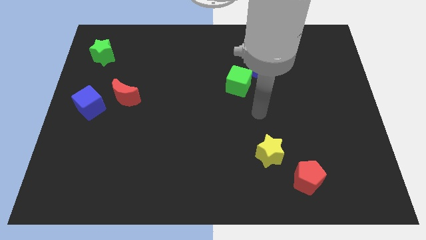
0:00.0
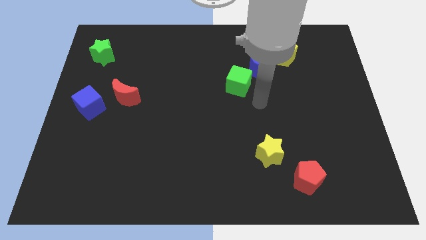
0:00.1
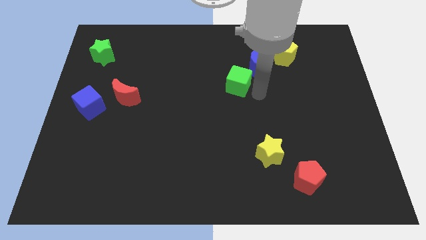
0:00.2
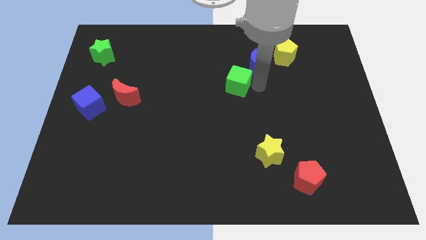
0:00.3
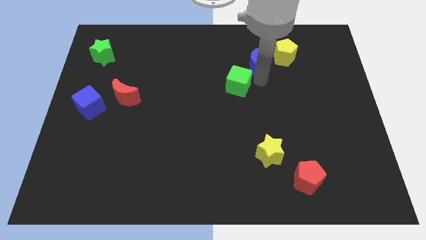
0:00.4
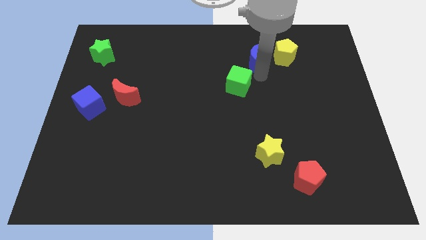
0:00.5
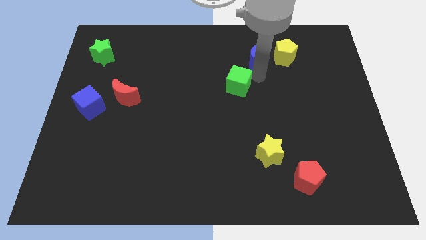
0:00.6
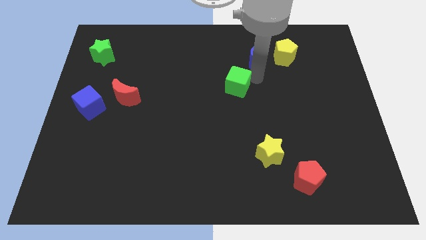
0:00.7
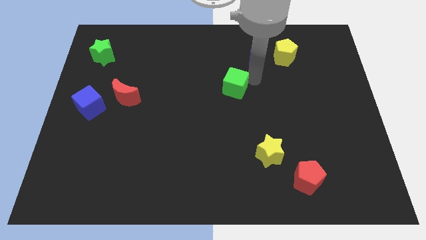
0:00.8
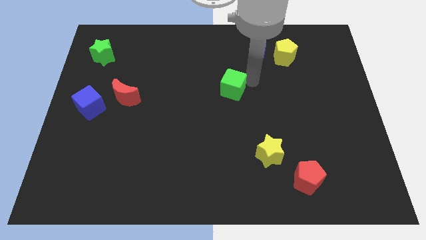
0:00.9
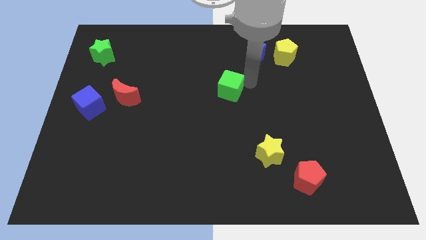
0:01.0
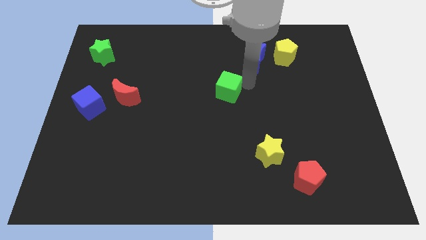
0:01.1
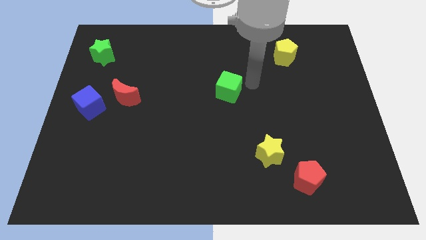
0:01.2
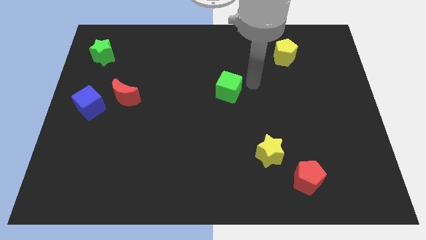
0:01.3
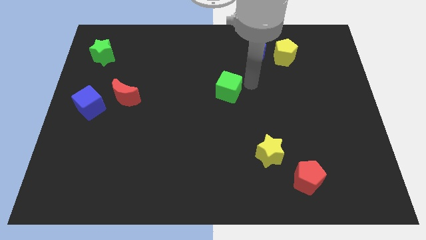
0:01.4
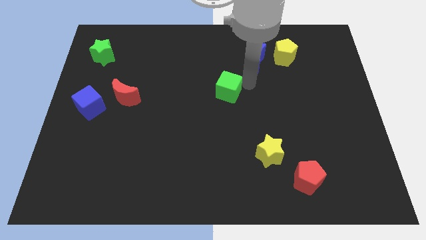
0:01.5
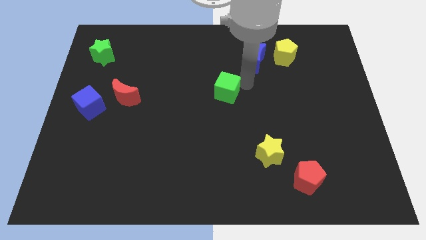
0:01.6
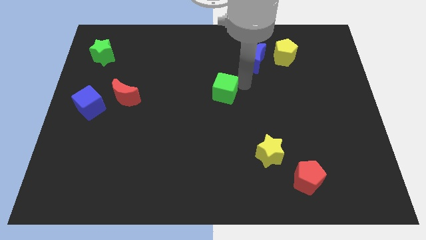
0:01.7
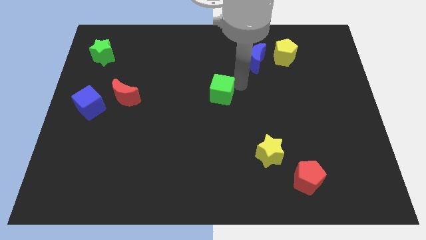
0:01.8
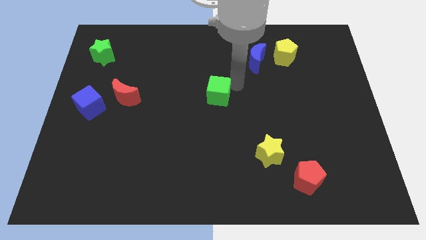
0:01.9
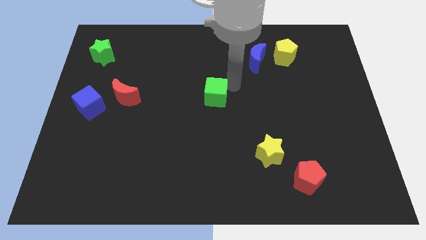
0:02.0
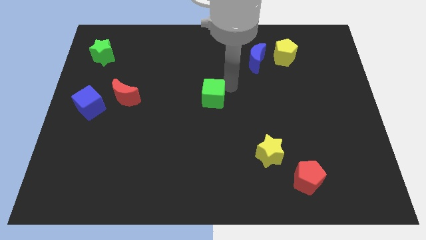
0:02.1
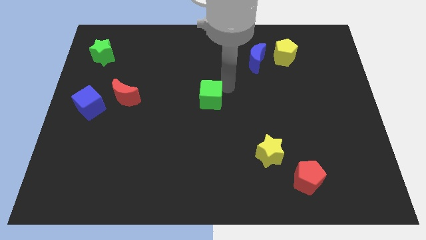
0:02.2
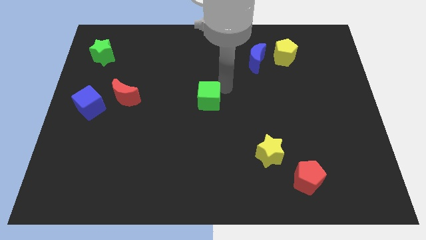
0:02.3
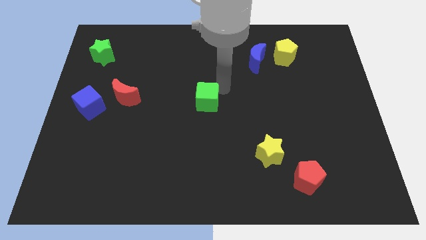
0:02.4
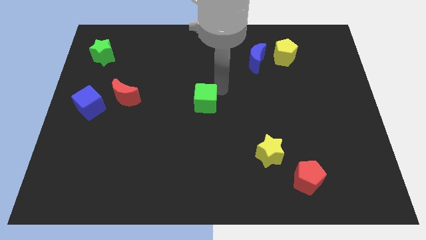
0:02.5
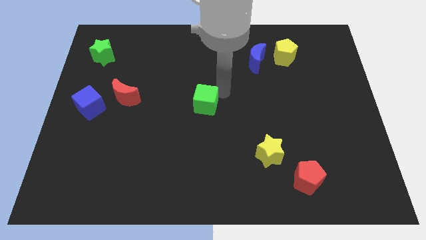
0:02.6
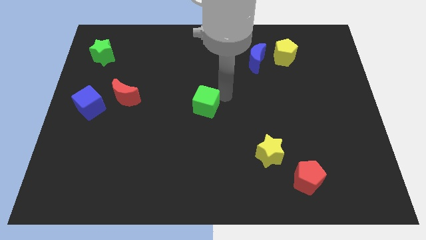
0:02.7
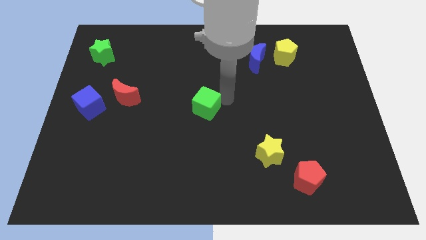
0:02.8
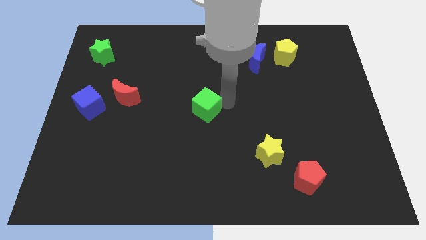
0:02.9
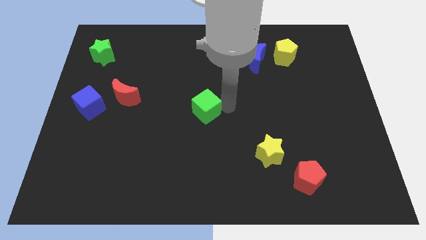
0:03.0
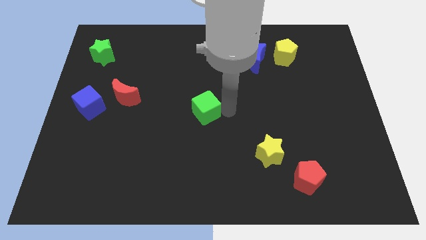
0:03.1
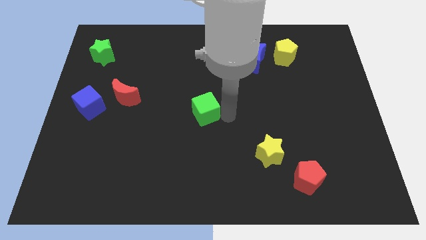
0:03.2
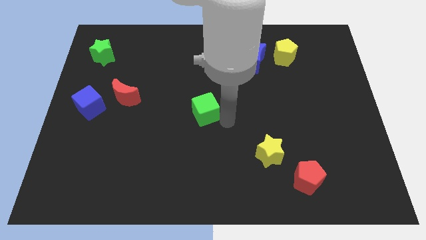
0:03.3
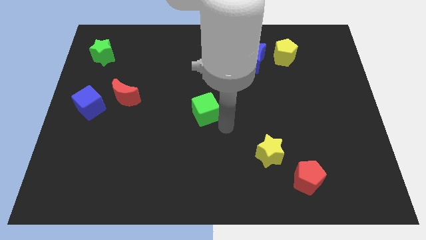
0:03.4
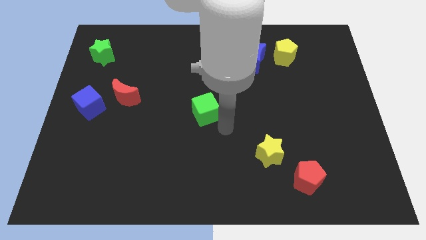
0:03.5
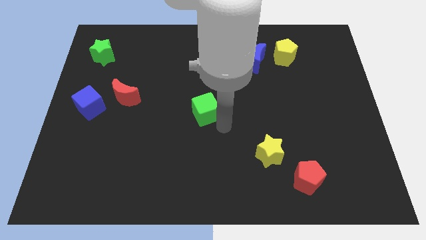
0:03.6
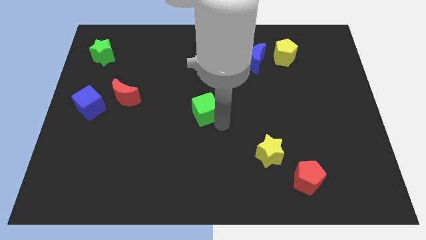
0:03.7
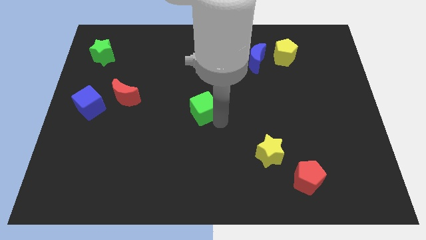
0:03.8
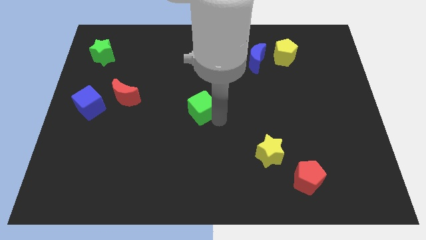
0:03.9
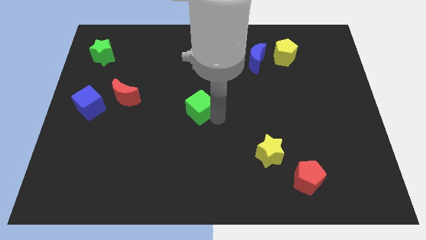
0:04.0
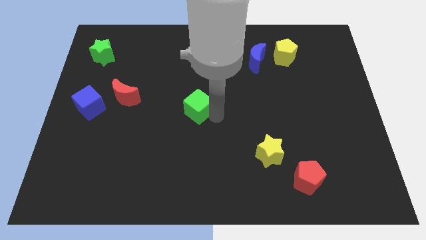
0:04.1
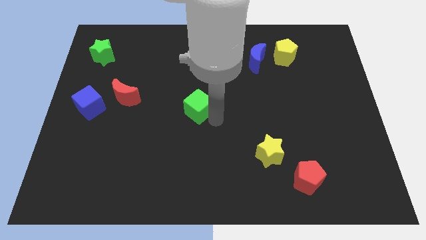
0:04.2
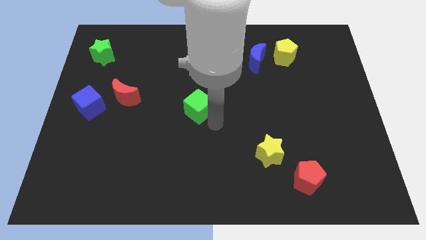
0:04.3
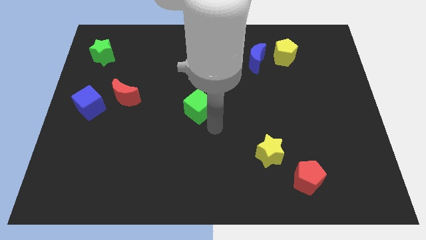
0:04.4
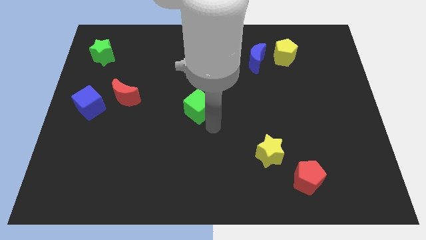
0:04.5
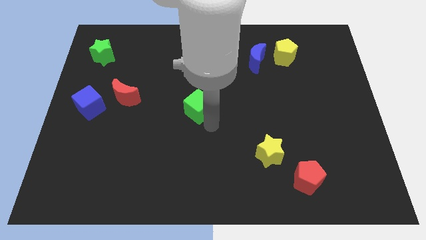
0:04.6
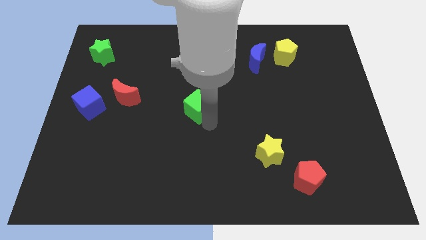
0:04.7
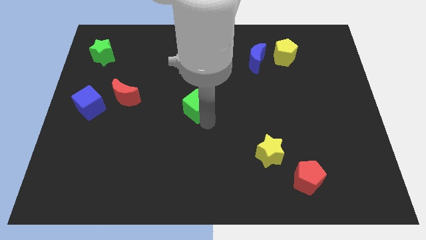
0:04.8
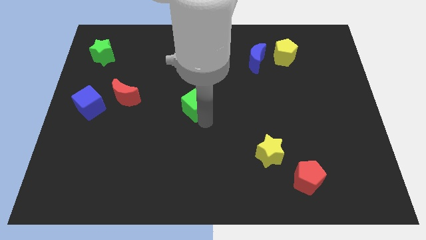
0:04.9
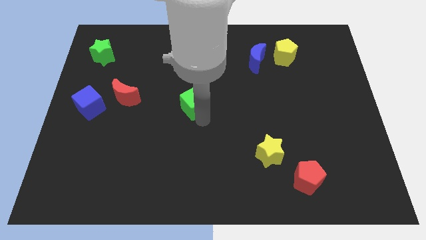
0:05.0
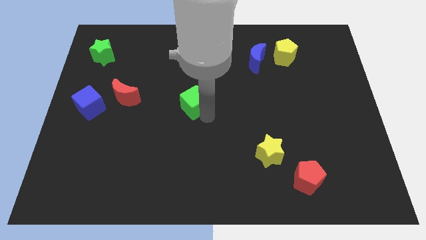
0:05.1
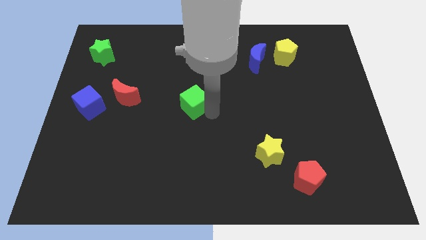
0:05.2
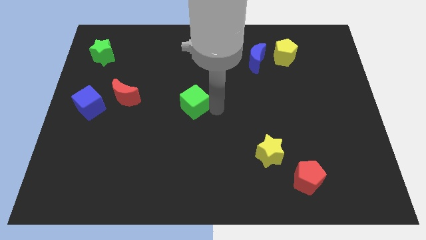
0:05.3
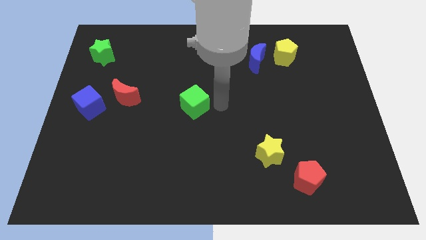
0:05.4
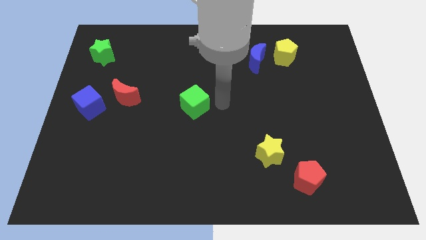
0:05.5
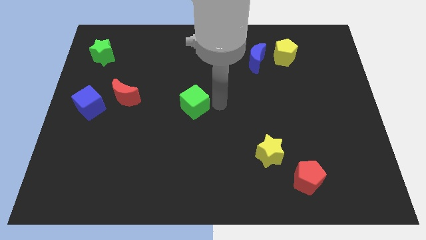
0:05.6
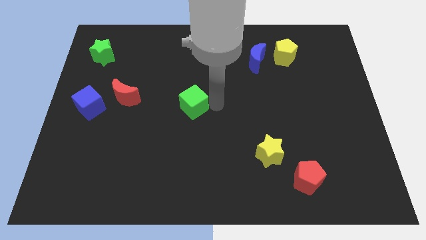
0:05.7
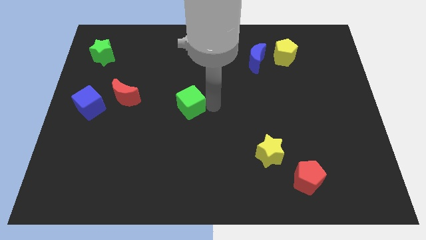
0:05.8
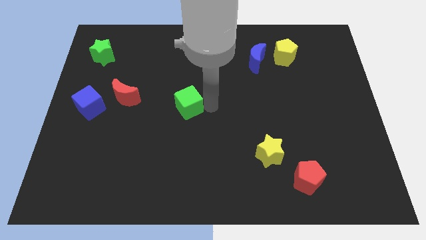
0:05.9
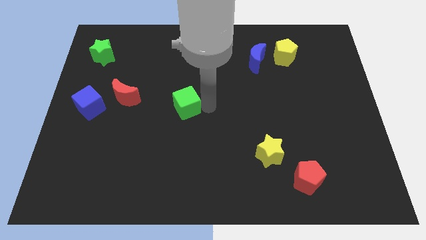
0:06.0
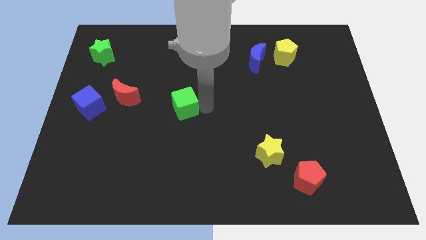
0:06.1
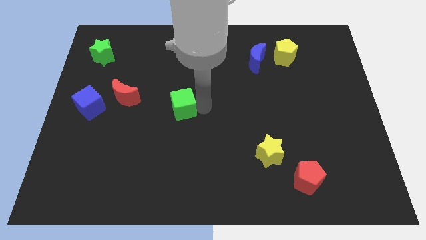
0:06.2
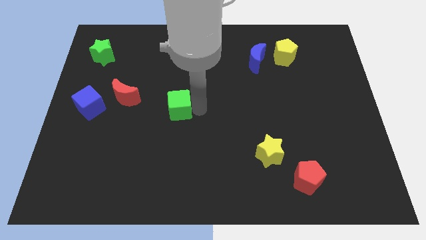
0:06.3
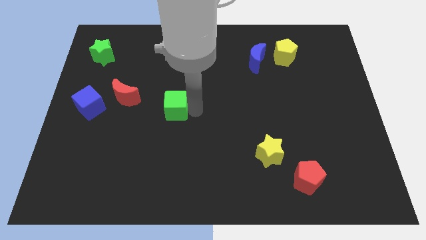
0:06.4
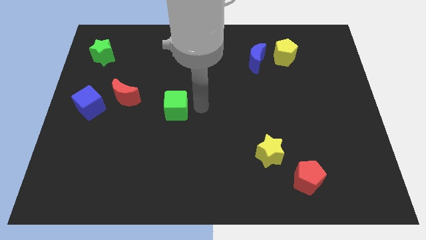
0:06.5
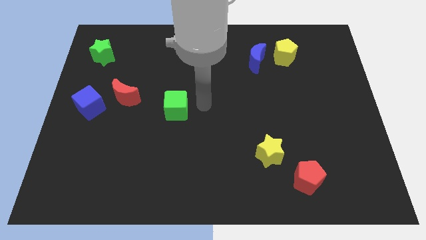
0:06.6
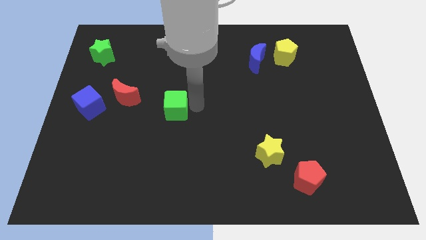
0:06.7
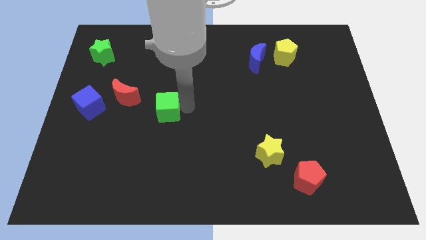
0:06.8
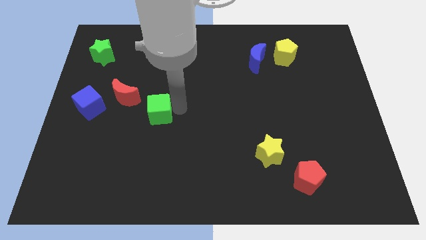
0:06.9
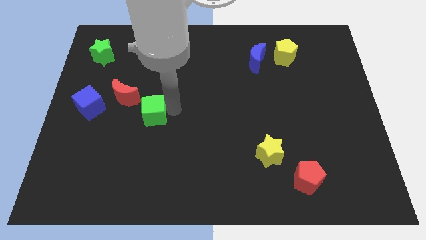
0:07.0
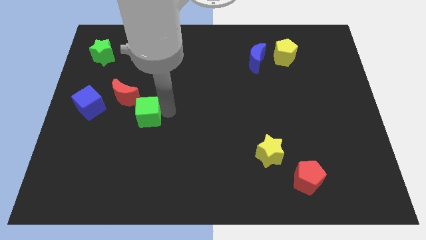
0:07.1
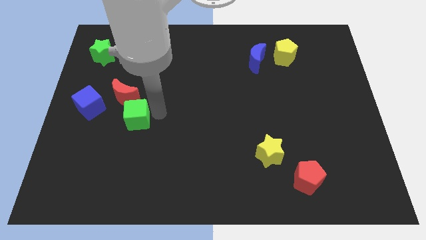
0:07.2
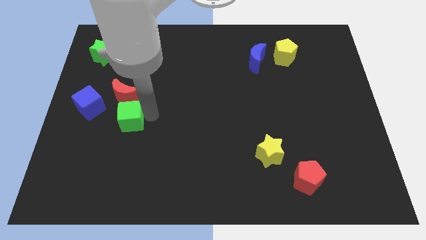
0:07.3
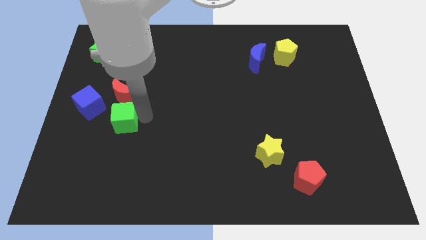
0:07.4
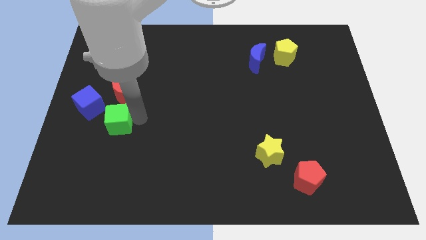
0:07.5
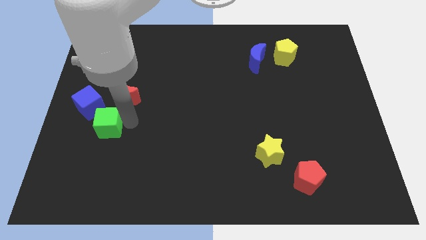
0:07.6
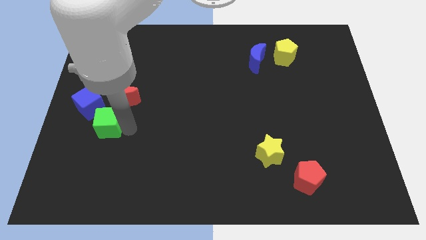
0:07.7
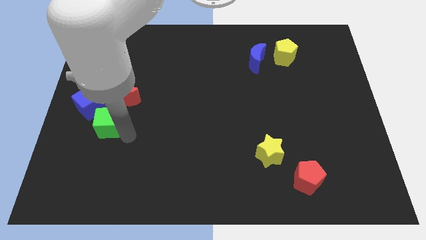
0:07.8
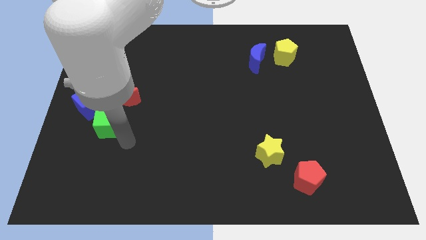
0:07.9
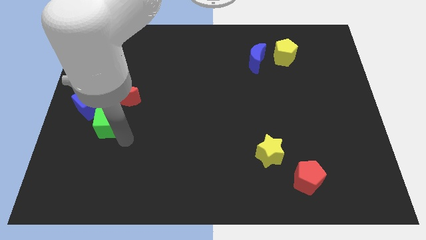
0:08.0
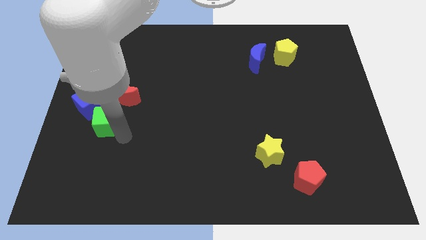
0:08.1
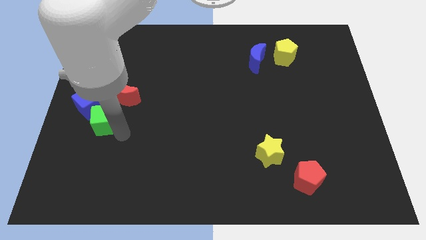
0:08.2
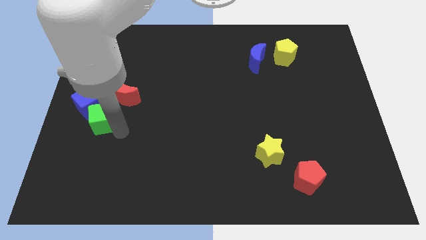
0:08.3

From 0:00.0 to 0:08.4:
push the green cube towards the blue cube
